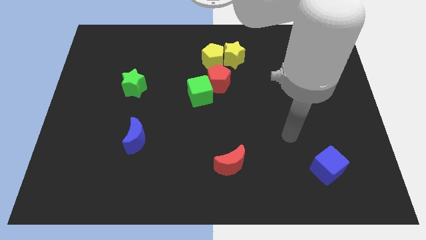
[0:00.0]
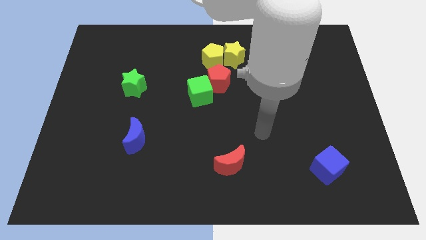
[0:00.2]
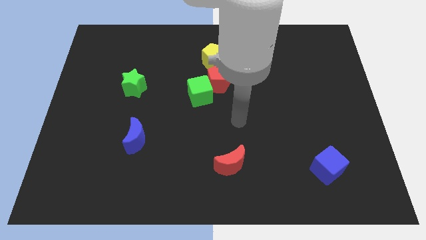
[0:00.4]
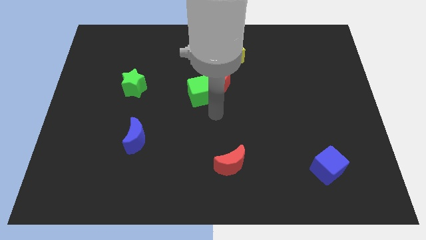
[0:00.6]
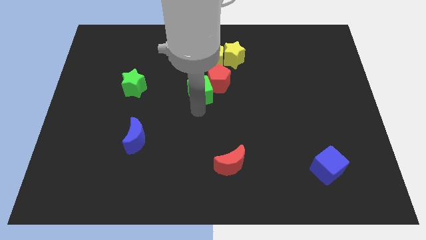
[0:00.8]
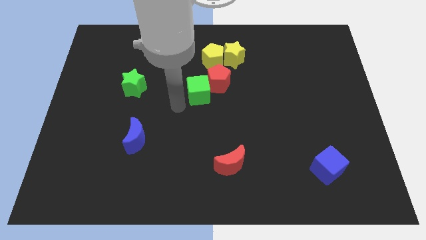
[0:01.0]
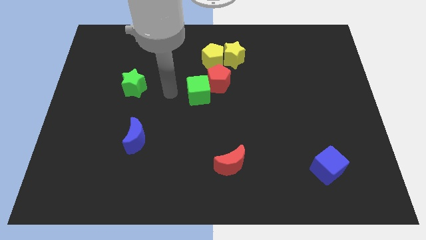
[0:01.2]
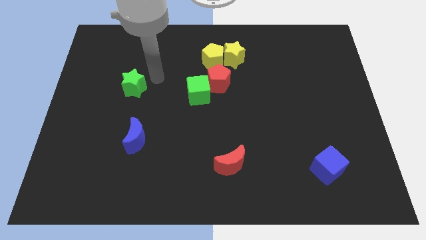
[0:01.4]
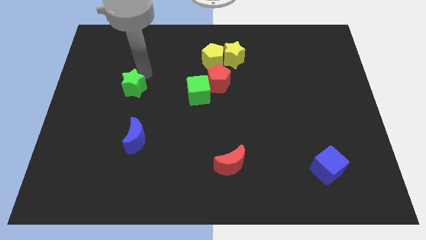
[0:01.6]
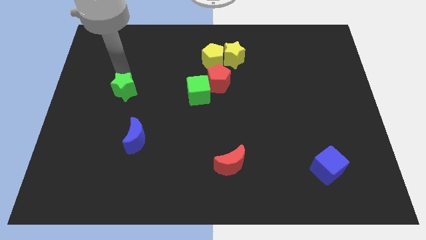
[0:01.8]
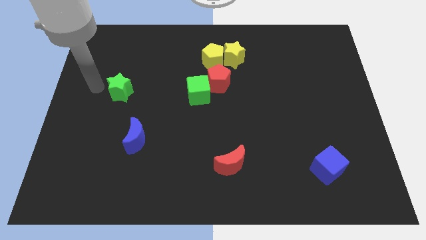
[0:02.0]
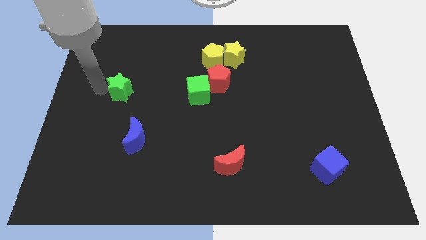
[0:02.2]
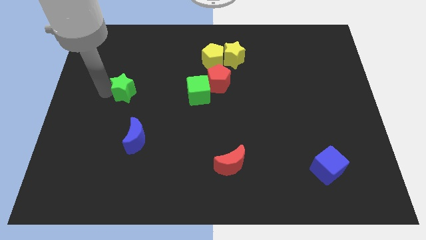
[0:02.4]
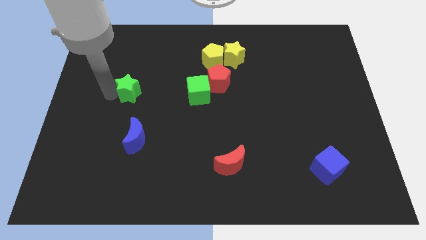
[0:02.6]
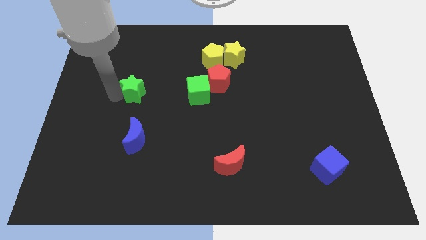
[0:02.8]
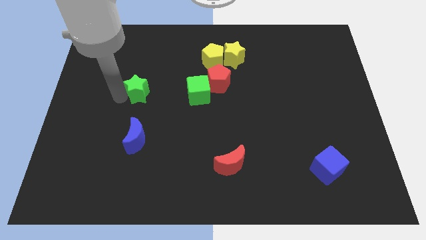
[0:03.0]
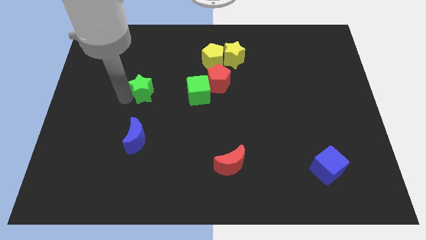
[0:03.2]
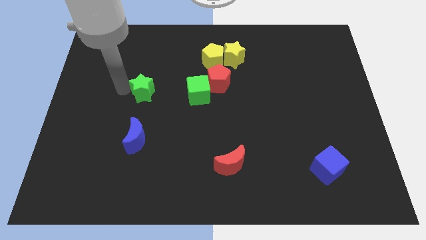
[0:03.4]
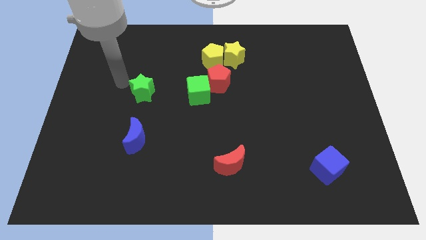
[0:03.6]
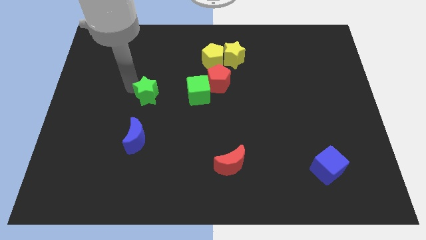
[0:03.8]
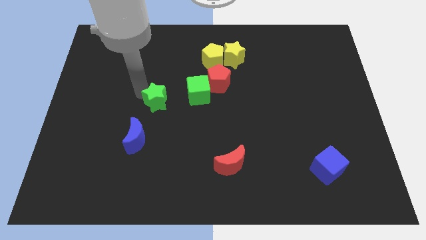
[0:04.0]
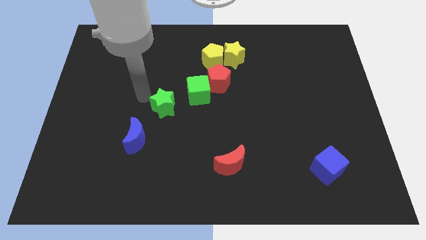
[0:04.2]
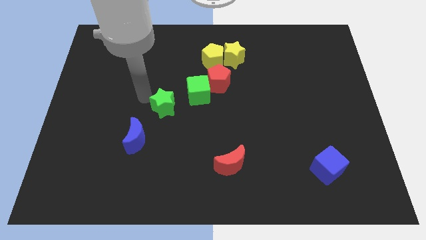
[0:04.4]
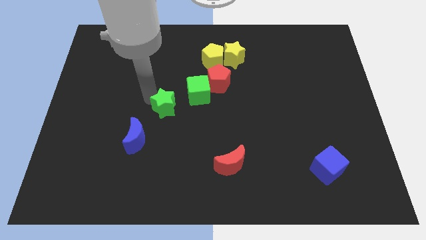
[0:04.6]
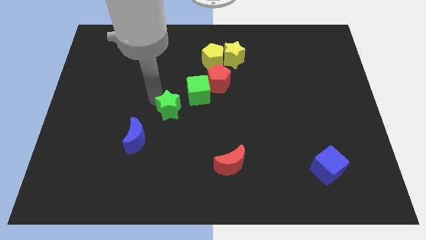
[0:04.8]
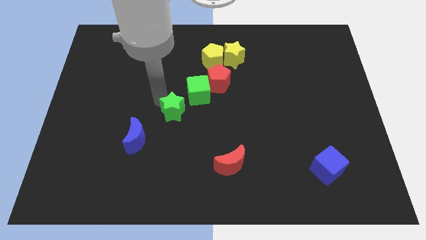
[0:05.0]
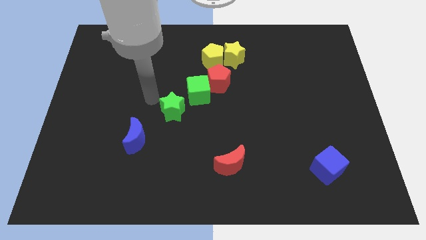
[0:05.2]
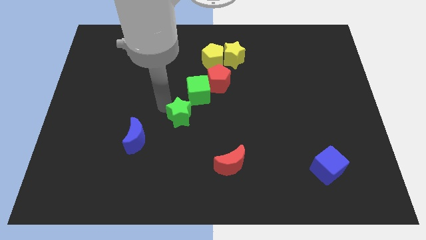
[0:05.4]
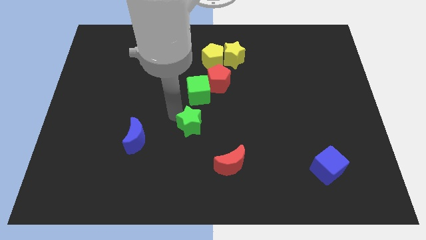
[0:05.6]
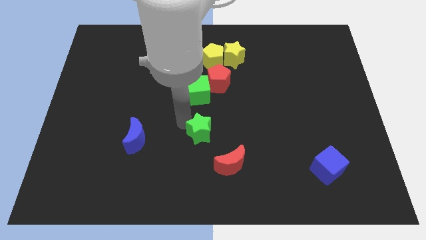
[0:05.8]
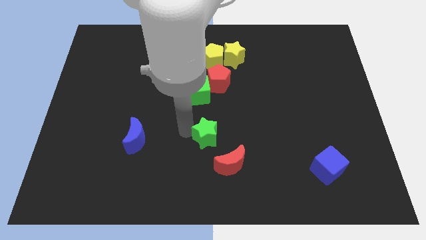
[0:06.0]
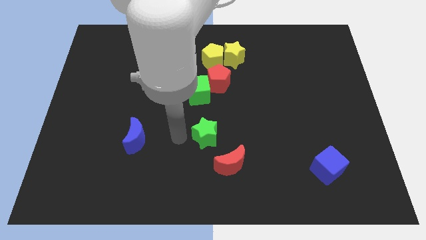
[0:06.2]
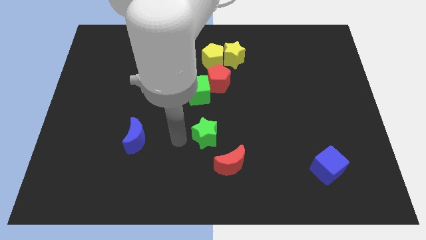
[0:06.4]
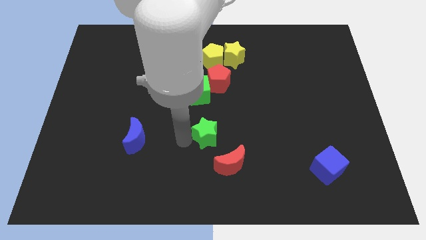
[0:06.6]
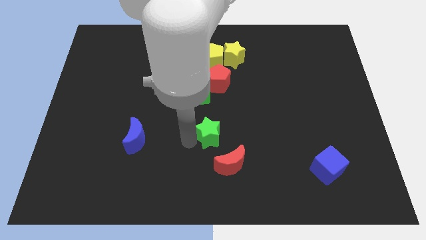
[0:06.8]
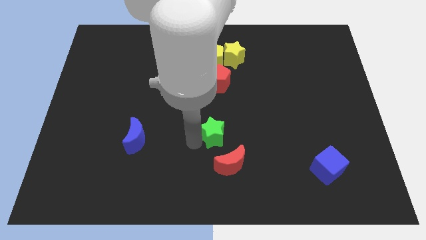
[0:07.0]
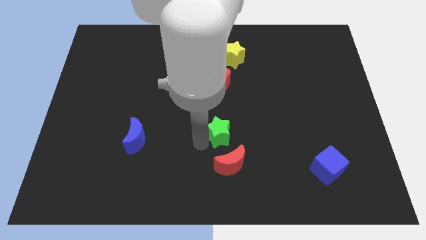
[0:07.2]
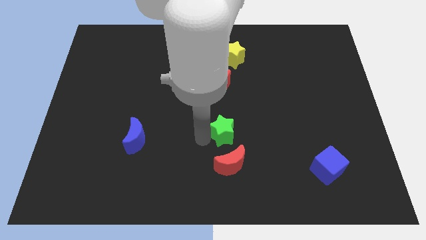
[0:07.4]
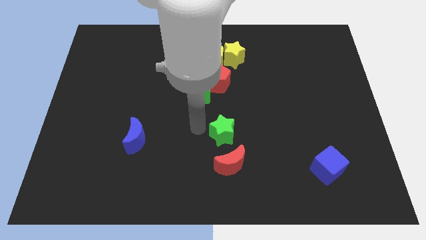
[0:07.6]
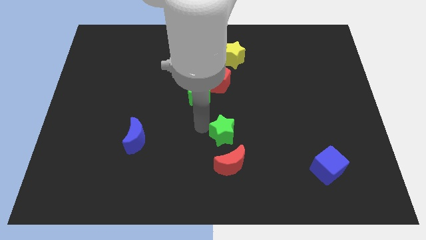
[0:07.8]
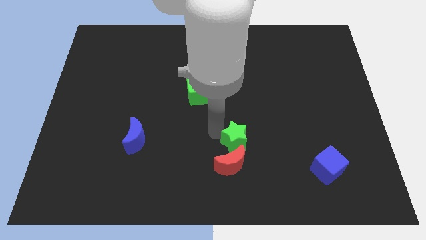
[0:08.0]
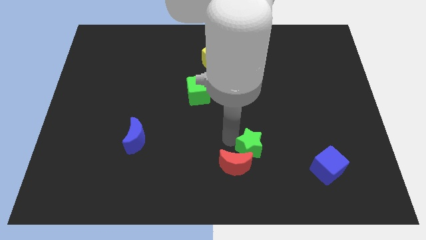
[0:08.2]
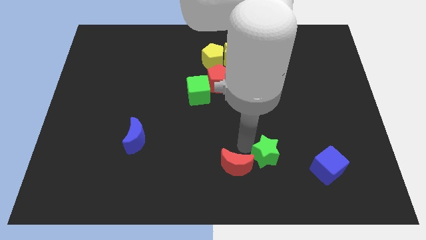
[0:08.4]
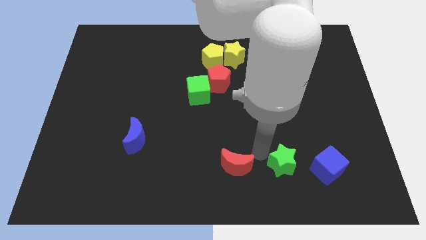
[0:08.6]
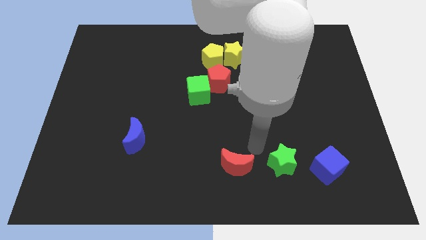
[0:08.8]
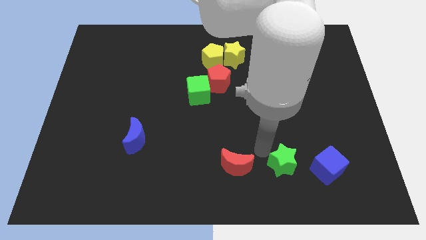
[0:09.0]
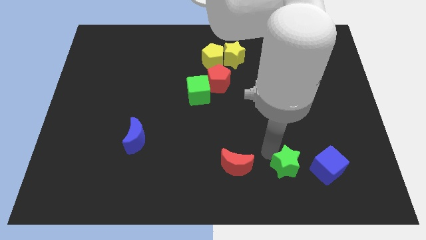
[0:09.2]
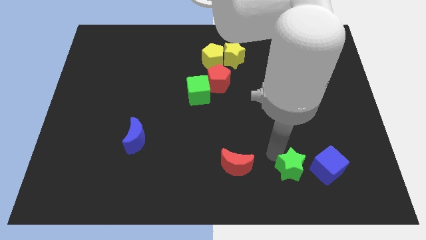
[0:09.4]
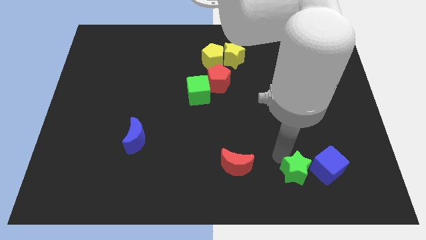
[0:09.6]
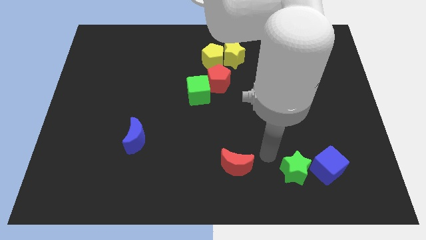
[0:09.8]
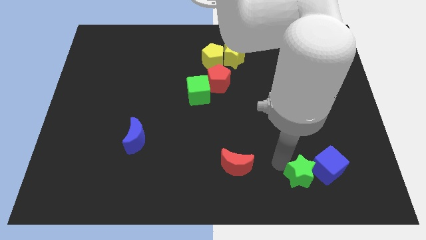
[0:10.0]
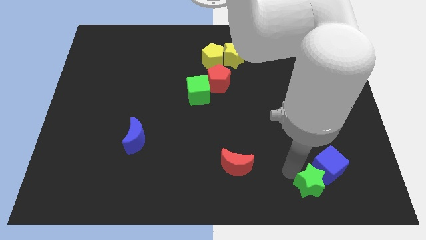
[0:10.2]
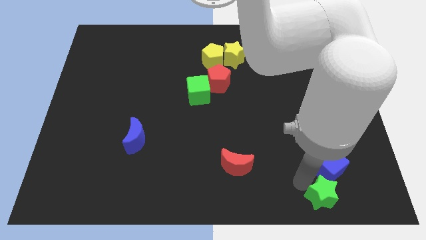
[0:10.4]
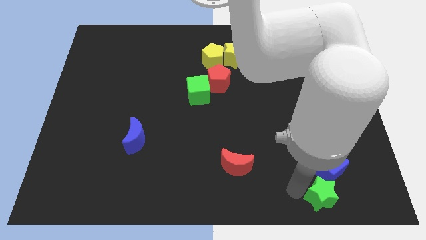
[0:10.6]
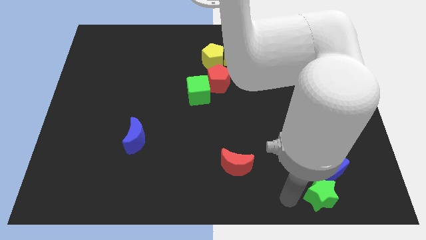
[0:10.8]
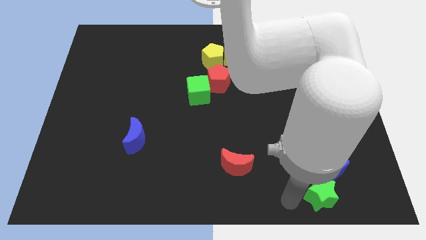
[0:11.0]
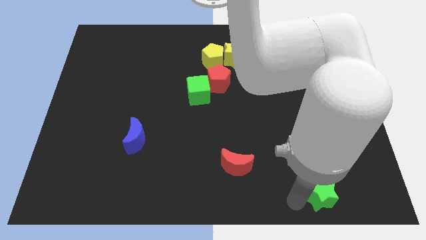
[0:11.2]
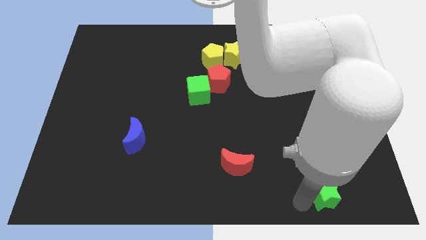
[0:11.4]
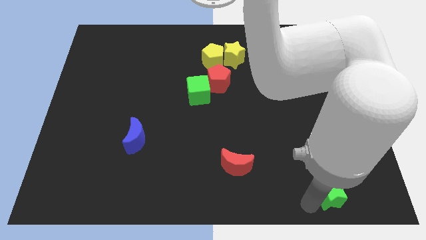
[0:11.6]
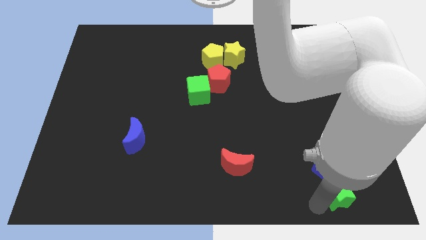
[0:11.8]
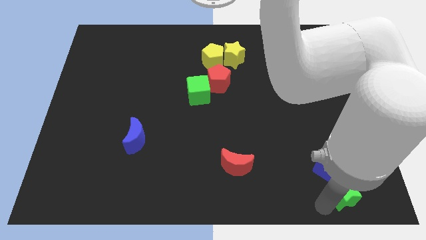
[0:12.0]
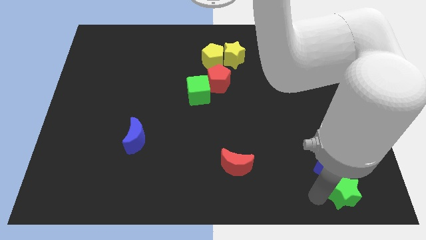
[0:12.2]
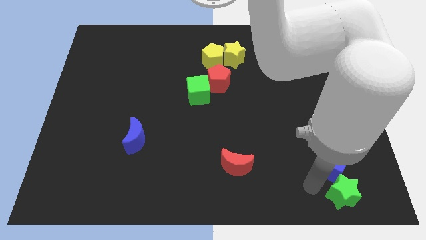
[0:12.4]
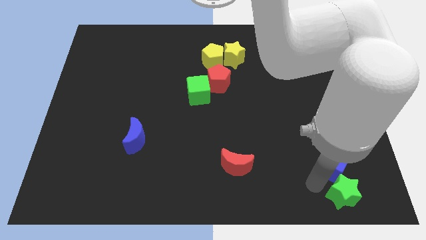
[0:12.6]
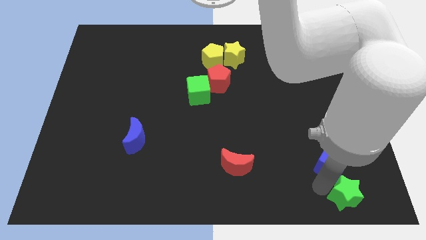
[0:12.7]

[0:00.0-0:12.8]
push the green star to the bottom right corner
